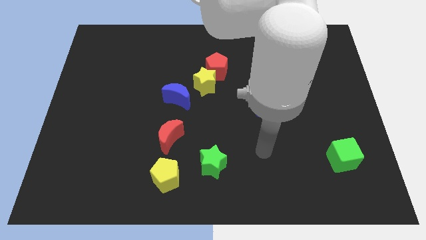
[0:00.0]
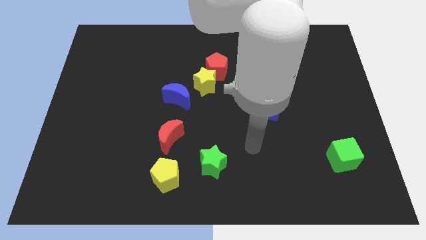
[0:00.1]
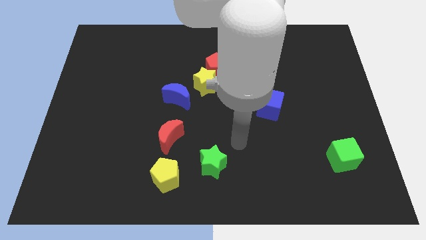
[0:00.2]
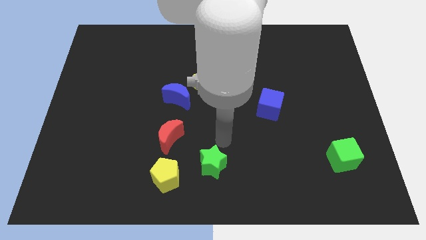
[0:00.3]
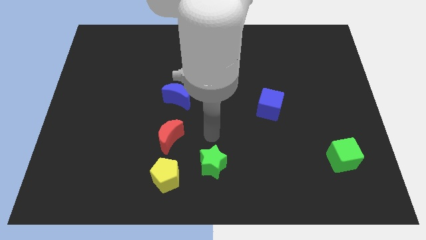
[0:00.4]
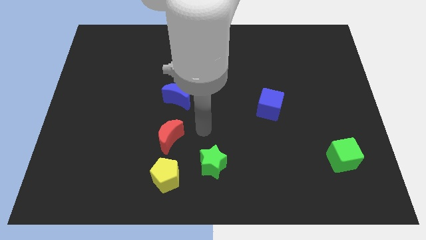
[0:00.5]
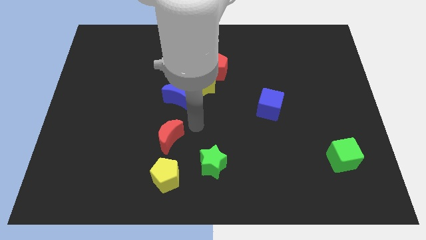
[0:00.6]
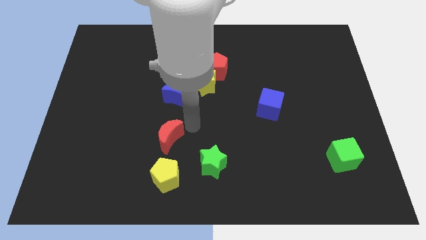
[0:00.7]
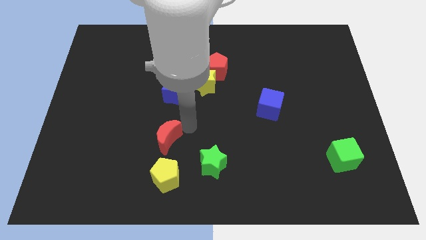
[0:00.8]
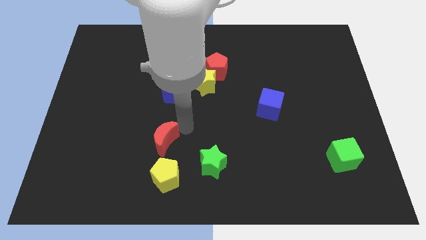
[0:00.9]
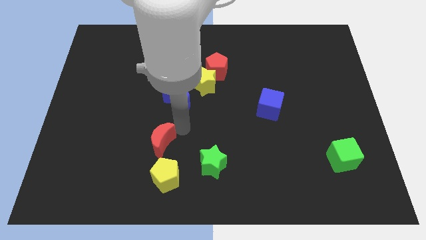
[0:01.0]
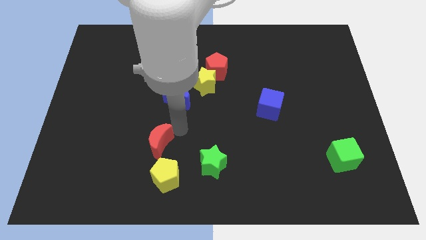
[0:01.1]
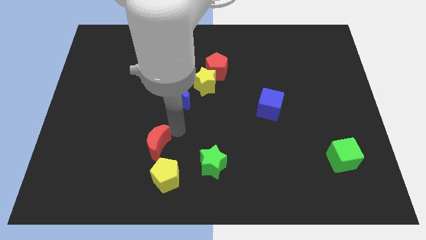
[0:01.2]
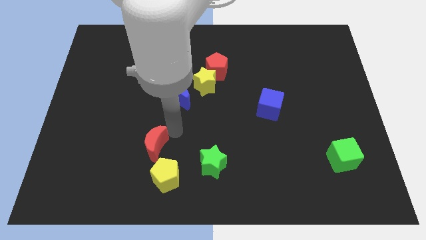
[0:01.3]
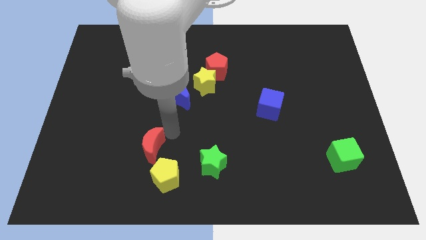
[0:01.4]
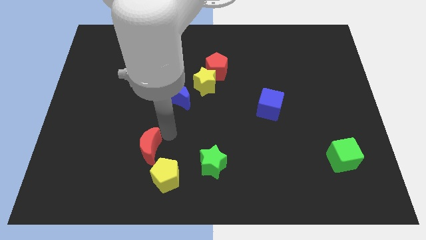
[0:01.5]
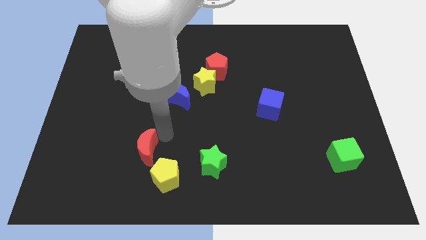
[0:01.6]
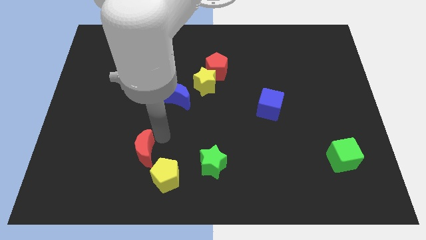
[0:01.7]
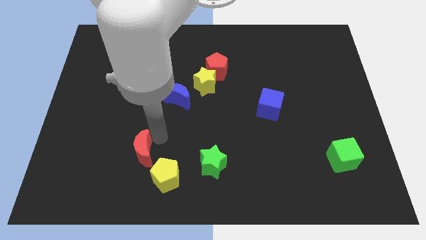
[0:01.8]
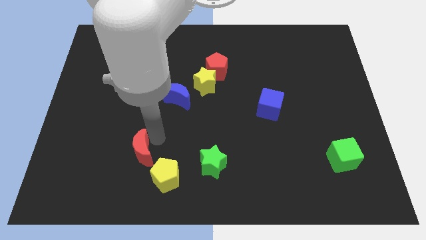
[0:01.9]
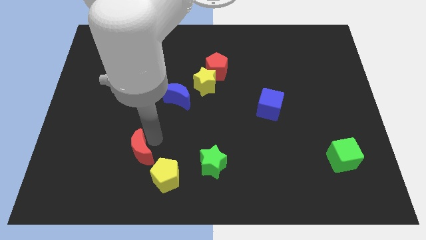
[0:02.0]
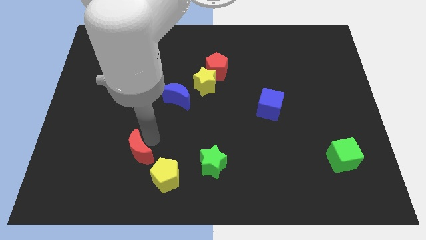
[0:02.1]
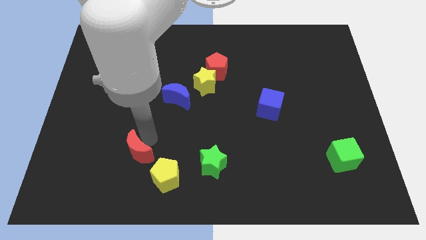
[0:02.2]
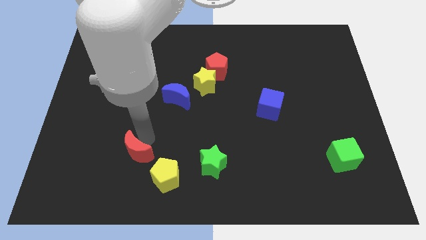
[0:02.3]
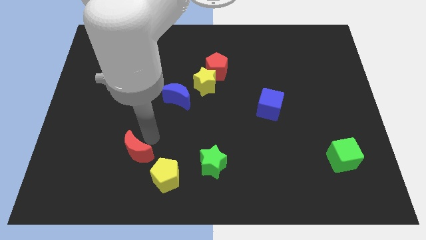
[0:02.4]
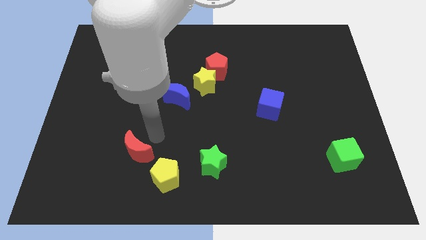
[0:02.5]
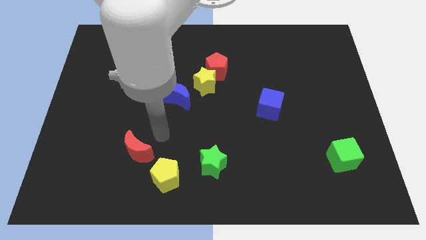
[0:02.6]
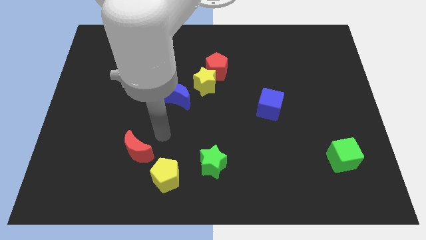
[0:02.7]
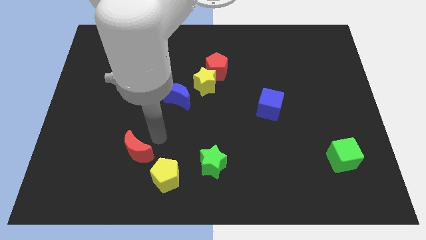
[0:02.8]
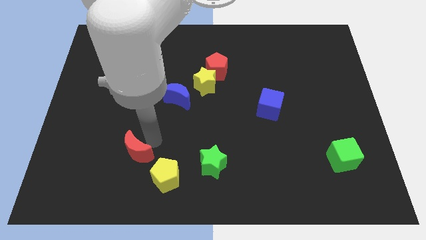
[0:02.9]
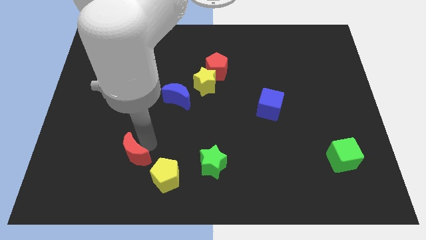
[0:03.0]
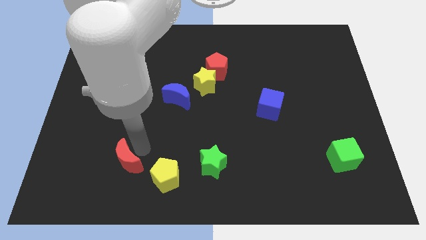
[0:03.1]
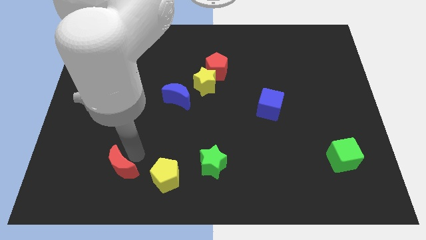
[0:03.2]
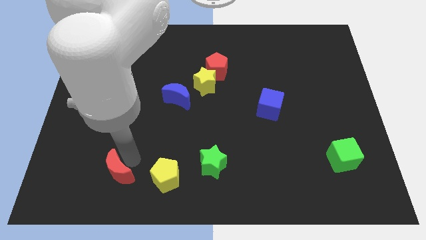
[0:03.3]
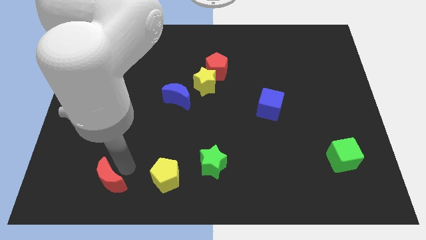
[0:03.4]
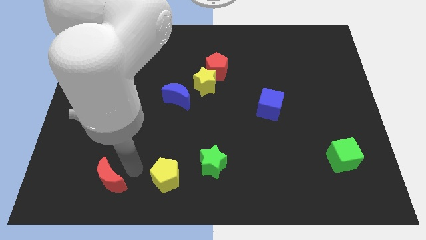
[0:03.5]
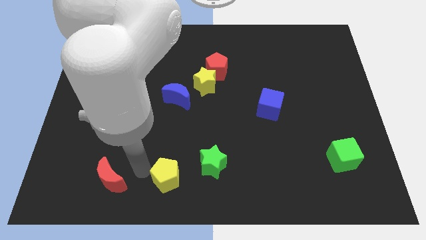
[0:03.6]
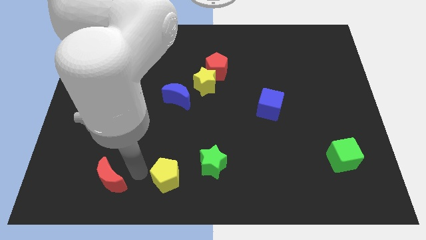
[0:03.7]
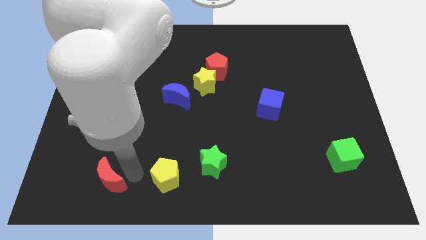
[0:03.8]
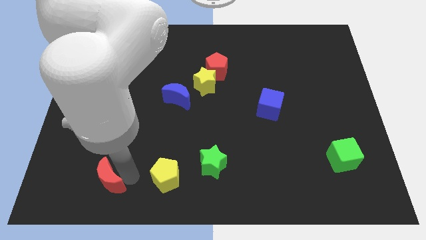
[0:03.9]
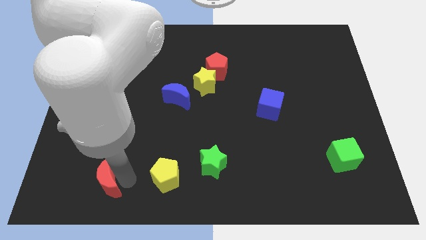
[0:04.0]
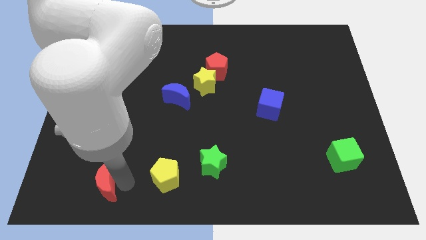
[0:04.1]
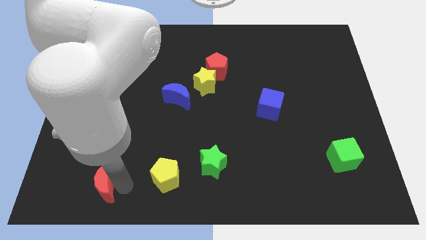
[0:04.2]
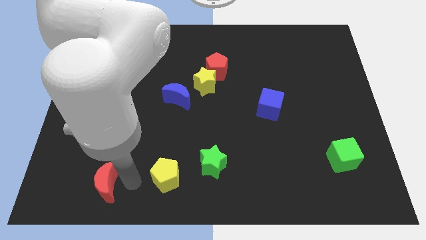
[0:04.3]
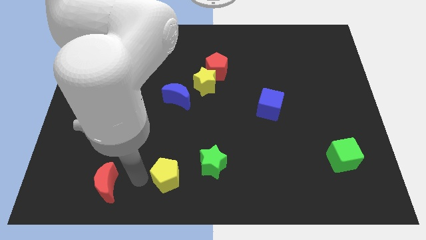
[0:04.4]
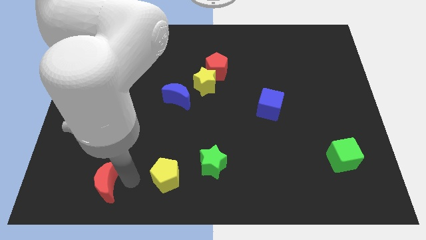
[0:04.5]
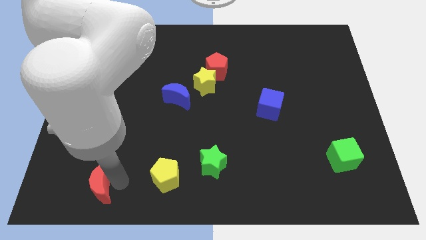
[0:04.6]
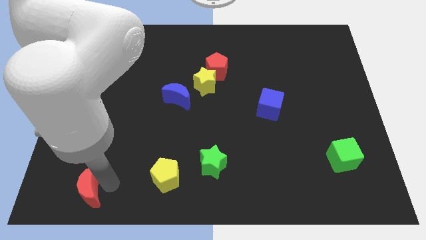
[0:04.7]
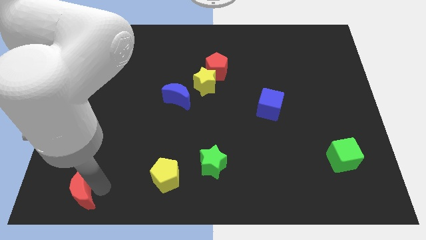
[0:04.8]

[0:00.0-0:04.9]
move the red moon to the lower left corner

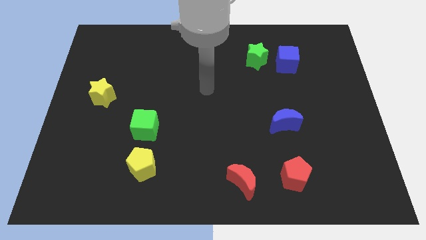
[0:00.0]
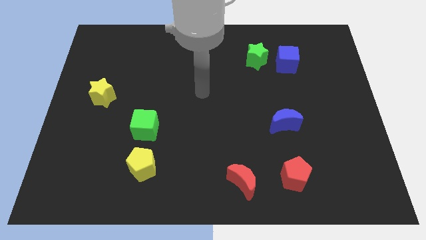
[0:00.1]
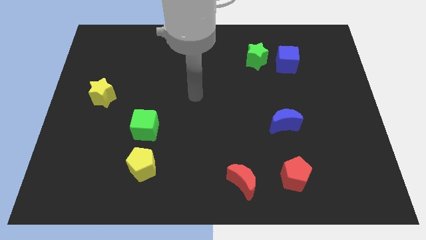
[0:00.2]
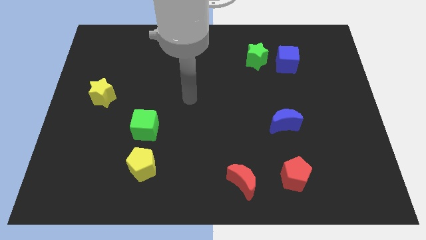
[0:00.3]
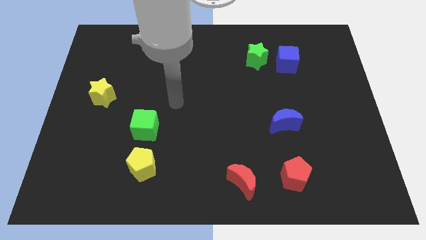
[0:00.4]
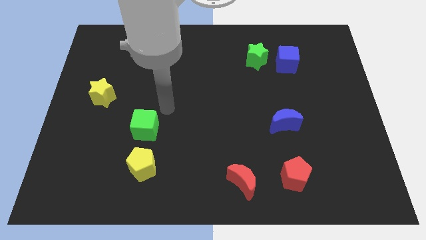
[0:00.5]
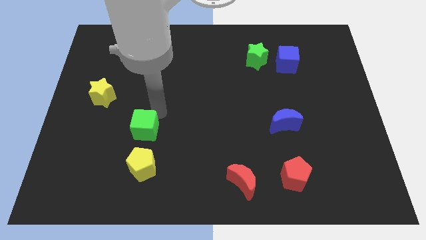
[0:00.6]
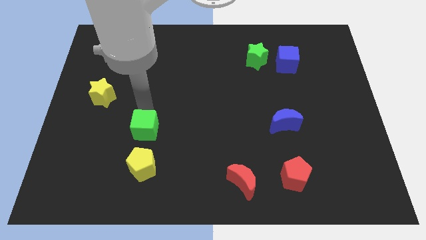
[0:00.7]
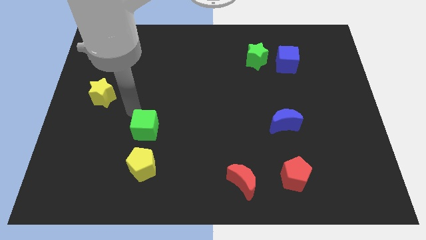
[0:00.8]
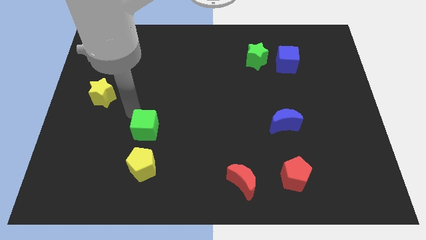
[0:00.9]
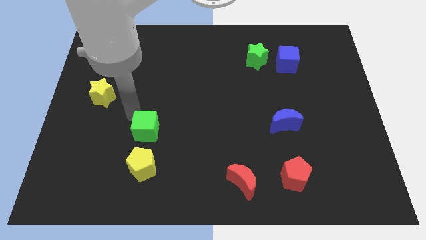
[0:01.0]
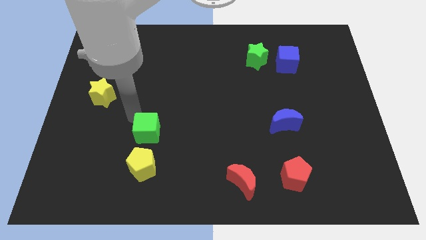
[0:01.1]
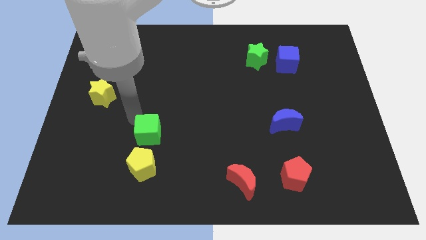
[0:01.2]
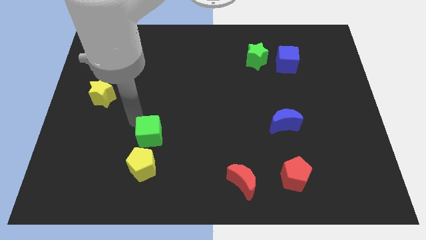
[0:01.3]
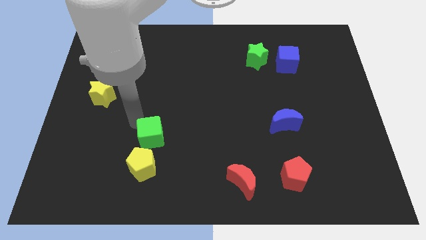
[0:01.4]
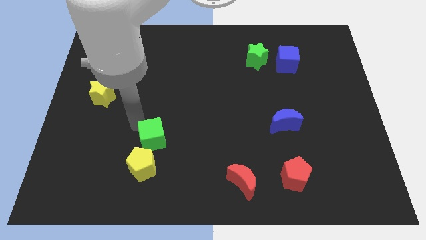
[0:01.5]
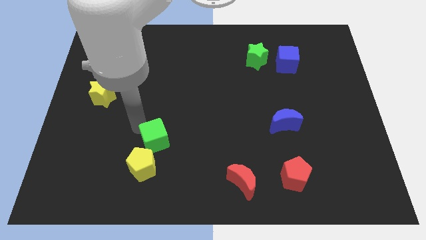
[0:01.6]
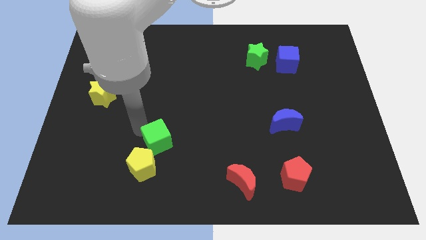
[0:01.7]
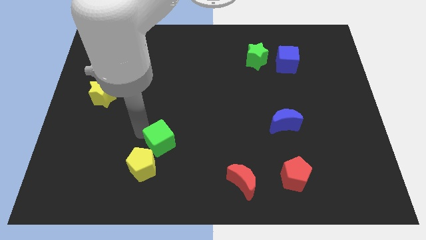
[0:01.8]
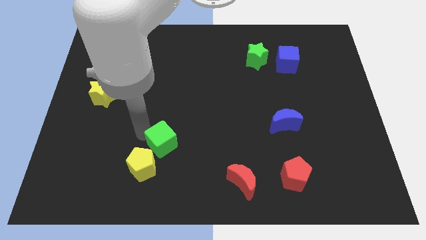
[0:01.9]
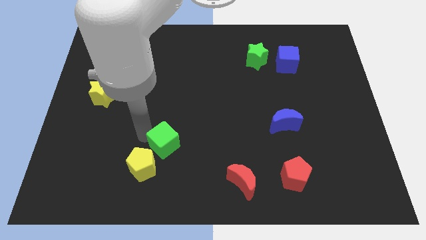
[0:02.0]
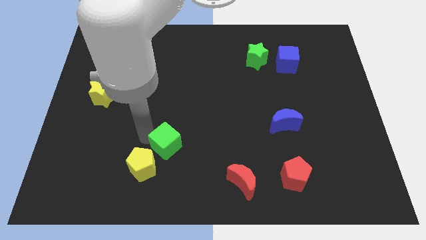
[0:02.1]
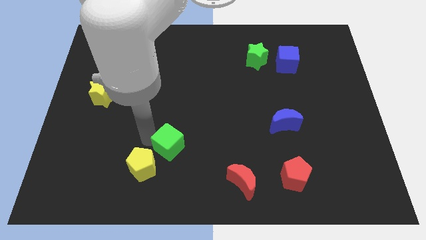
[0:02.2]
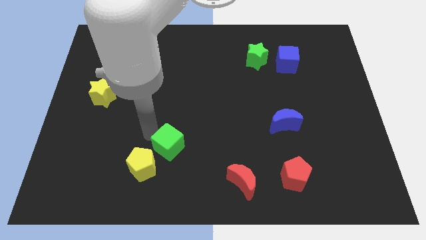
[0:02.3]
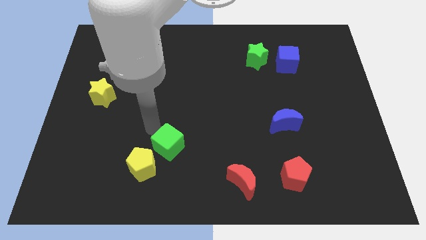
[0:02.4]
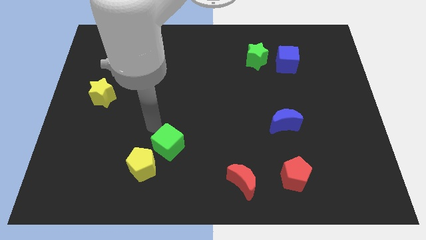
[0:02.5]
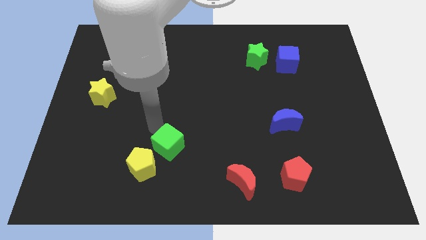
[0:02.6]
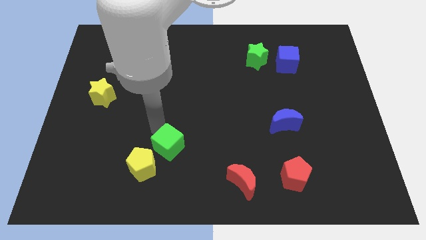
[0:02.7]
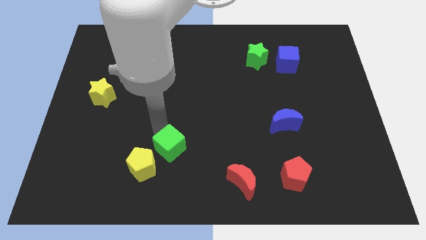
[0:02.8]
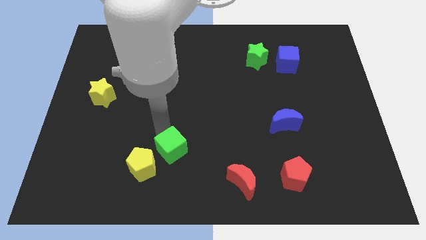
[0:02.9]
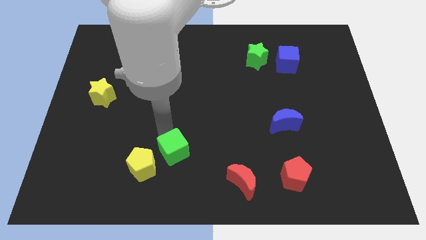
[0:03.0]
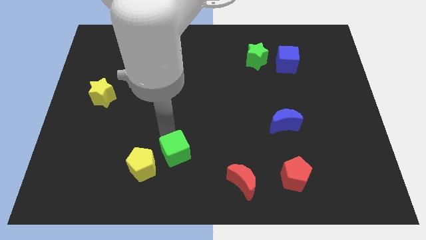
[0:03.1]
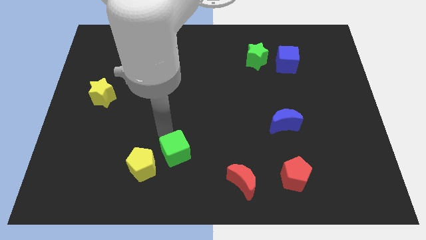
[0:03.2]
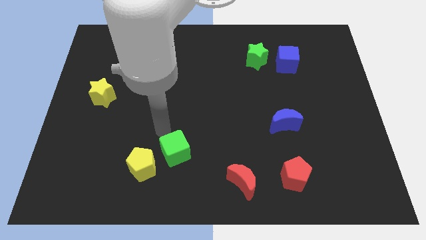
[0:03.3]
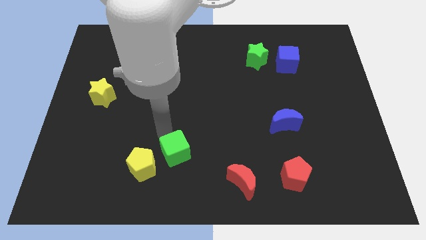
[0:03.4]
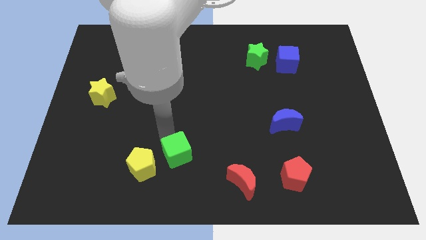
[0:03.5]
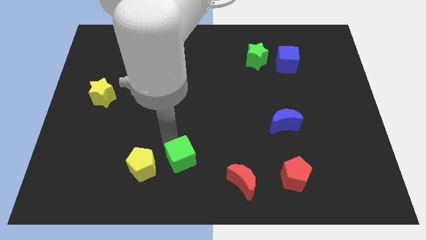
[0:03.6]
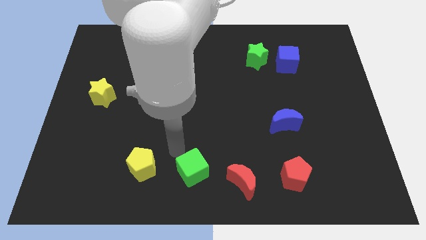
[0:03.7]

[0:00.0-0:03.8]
push the green cube to the bottom
